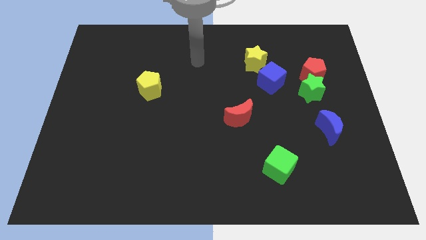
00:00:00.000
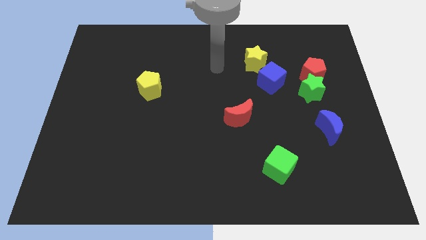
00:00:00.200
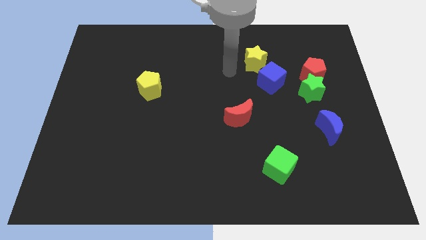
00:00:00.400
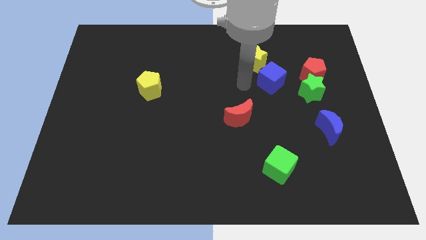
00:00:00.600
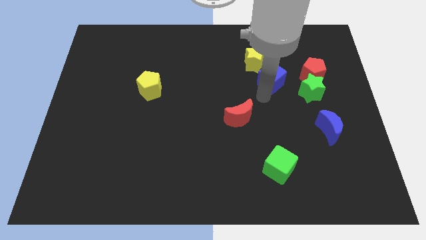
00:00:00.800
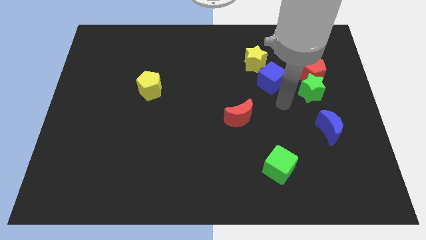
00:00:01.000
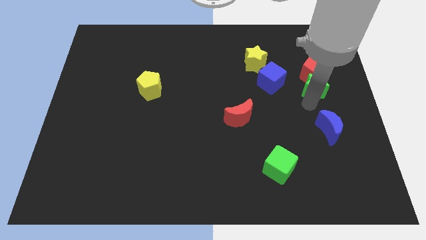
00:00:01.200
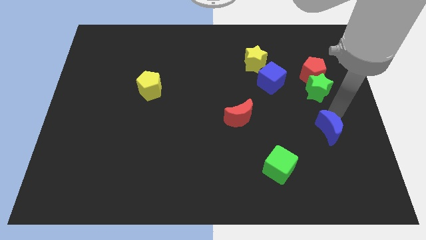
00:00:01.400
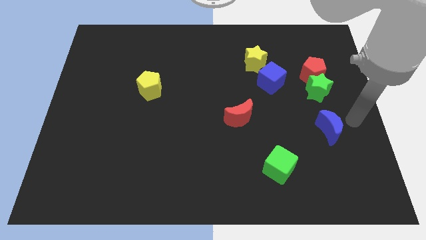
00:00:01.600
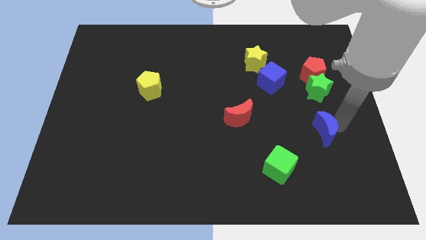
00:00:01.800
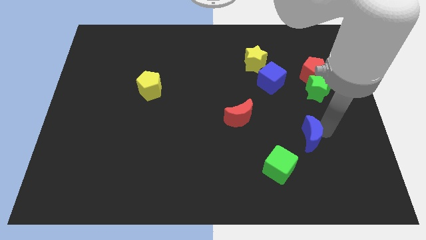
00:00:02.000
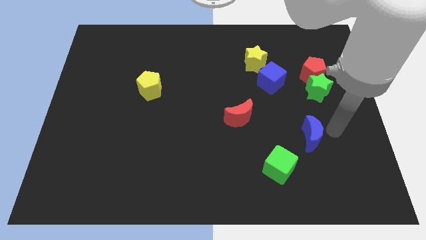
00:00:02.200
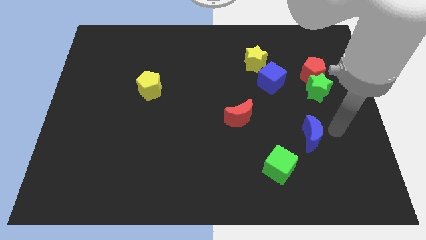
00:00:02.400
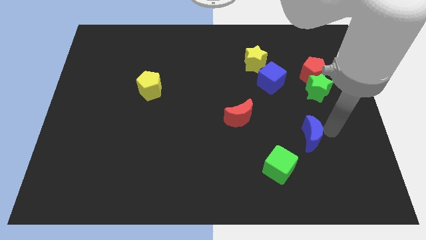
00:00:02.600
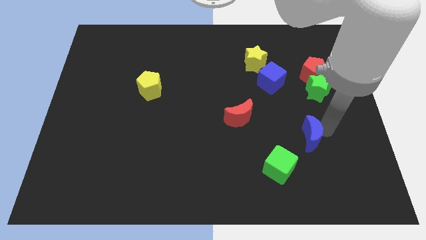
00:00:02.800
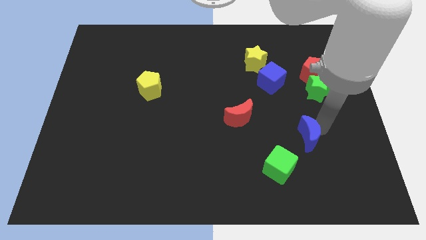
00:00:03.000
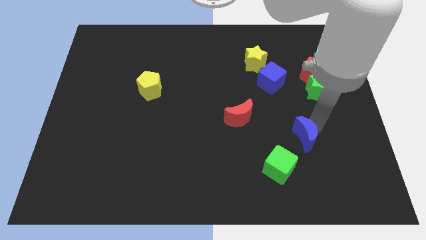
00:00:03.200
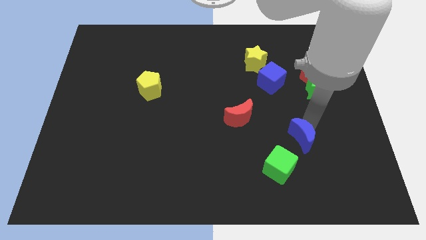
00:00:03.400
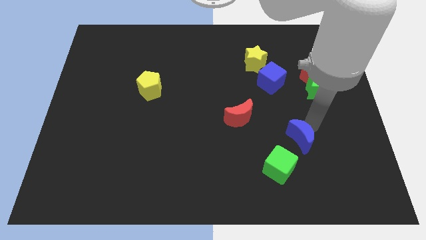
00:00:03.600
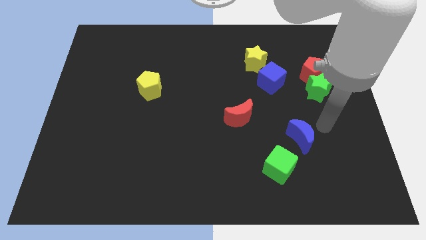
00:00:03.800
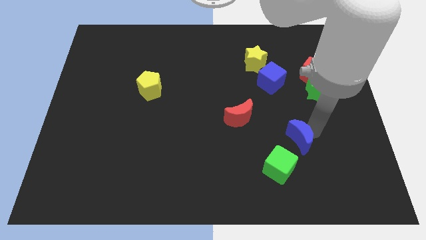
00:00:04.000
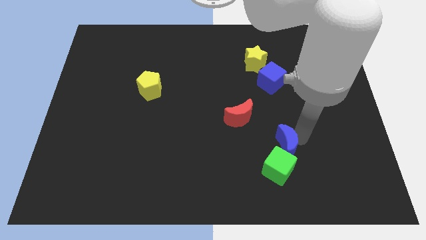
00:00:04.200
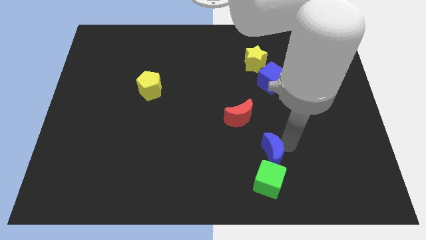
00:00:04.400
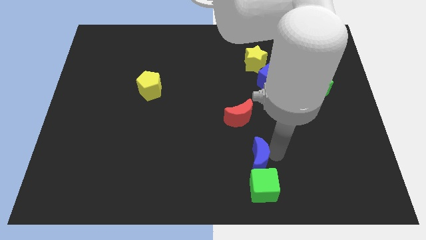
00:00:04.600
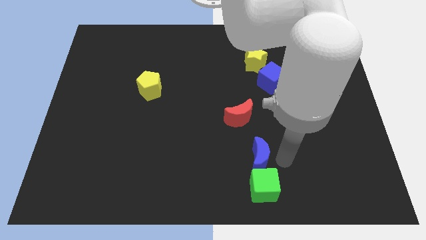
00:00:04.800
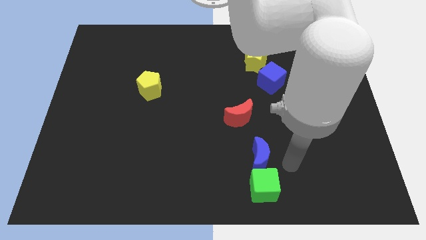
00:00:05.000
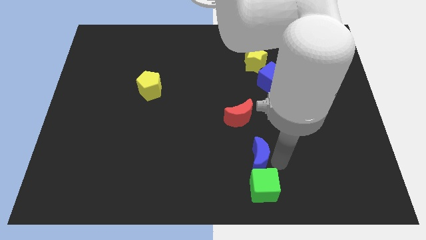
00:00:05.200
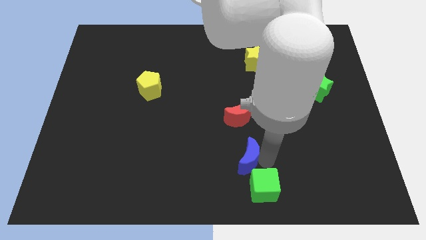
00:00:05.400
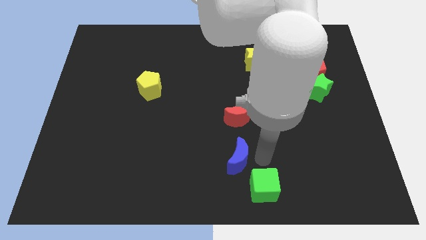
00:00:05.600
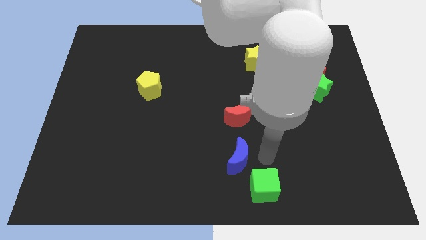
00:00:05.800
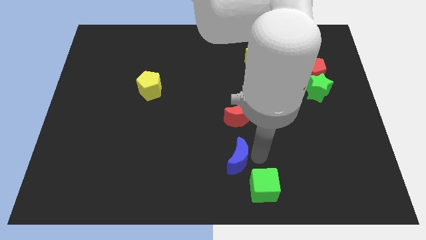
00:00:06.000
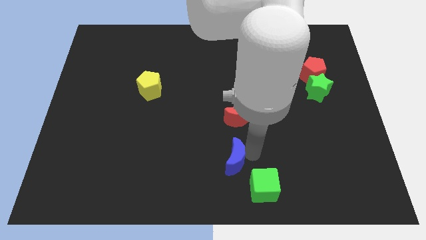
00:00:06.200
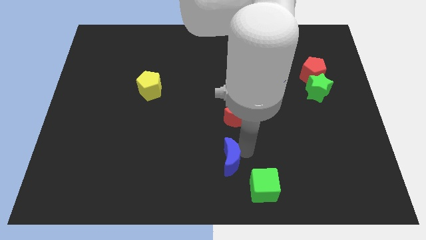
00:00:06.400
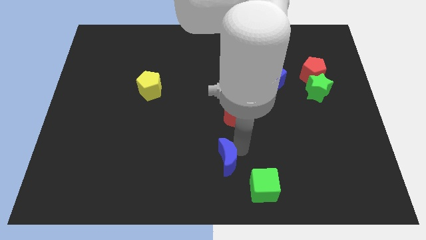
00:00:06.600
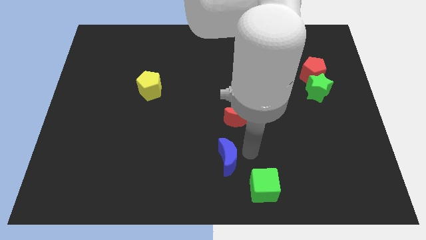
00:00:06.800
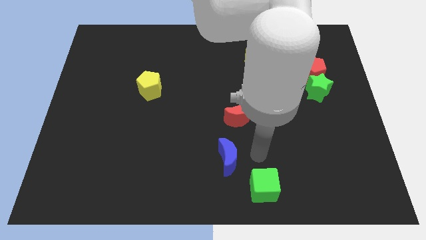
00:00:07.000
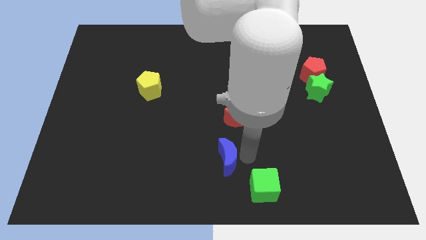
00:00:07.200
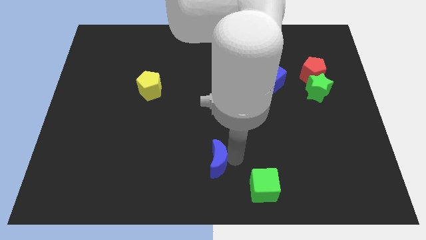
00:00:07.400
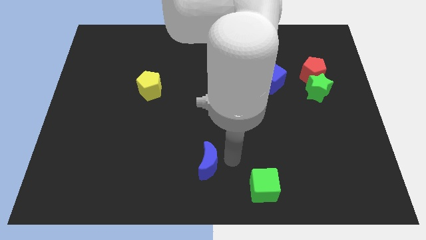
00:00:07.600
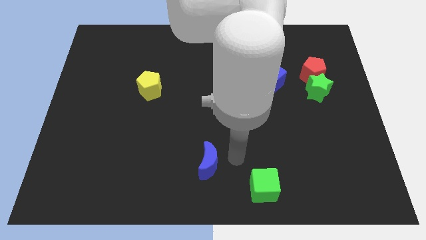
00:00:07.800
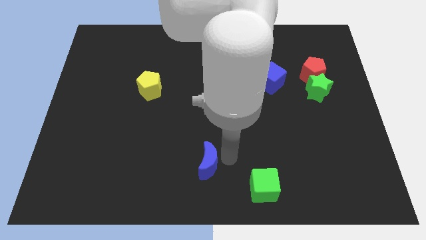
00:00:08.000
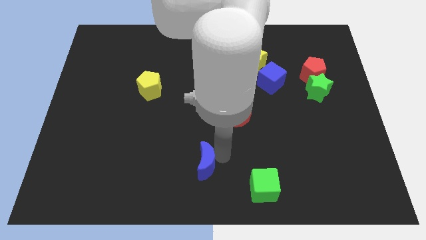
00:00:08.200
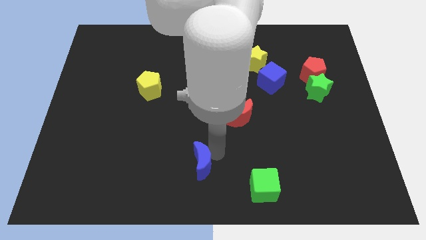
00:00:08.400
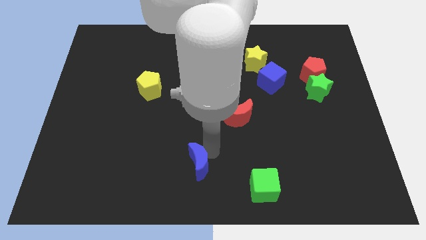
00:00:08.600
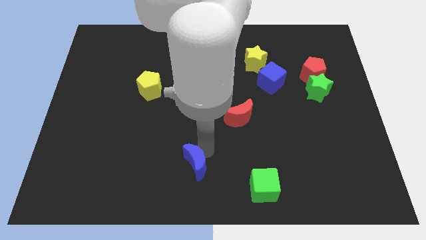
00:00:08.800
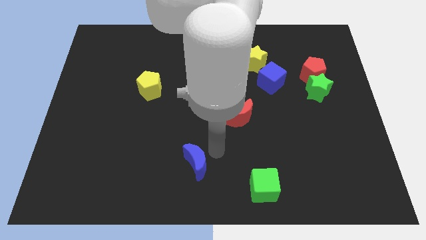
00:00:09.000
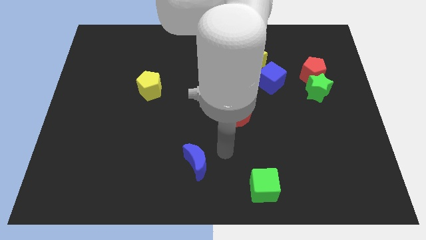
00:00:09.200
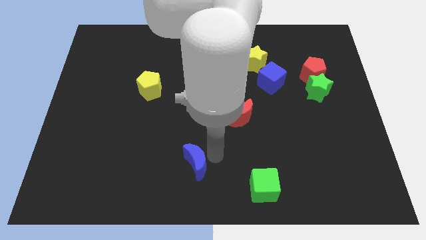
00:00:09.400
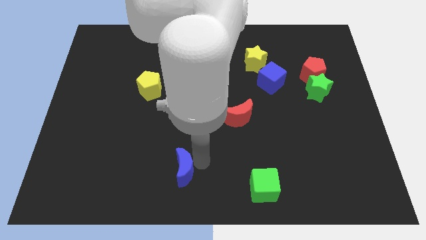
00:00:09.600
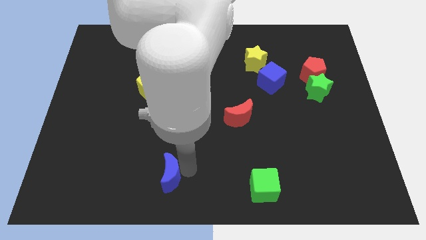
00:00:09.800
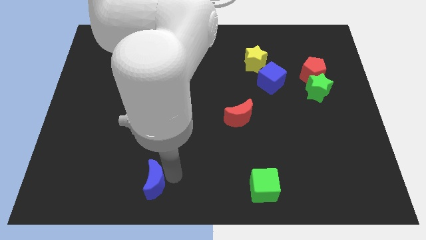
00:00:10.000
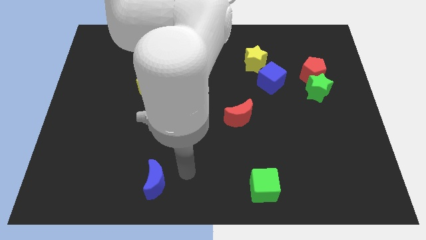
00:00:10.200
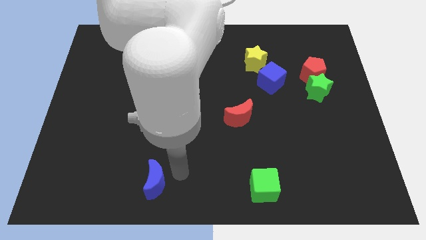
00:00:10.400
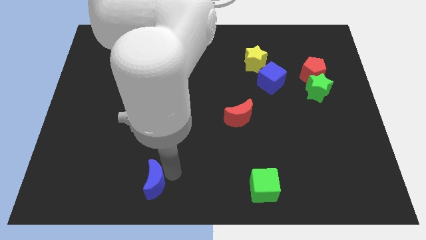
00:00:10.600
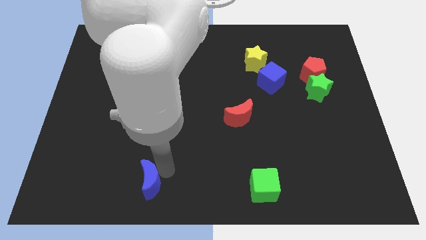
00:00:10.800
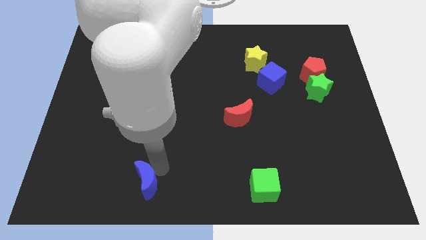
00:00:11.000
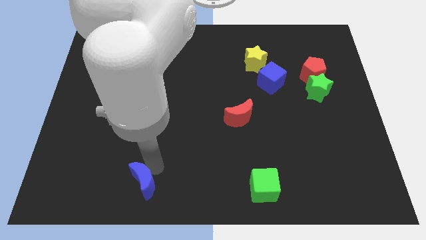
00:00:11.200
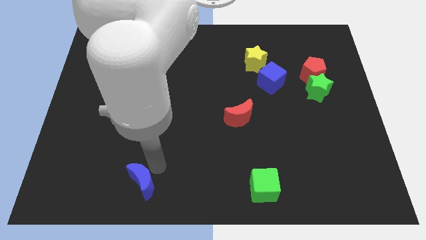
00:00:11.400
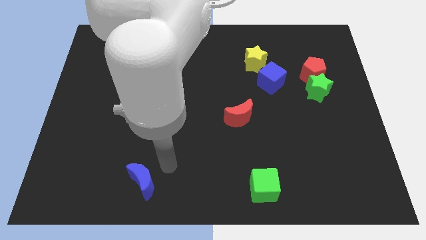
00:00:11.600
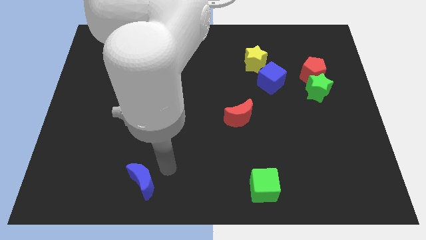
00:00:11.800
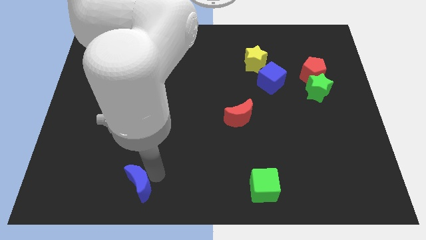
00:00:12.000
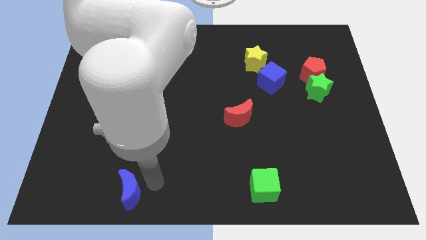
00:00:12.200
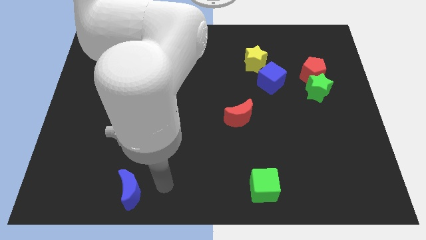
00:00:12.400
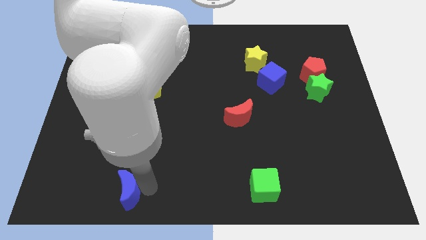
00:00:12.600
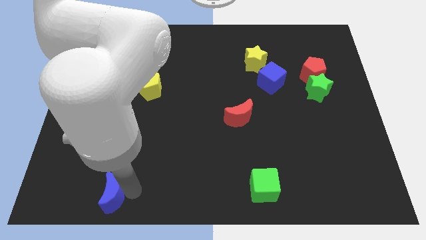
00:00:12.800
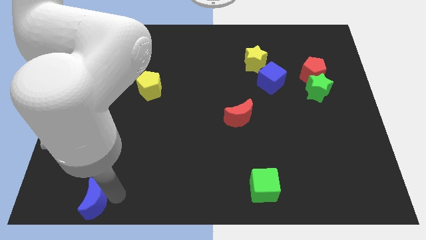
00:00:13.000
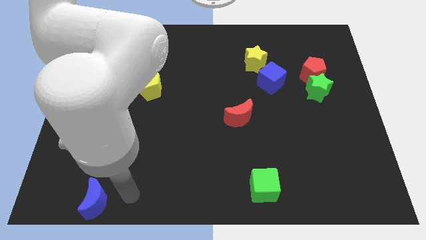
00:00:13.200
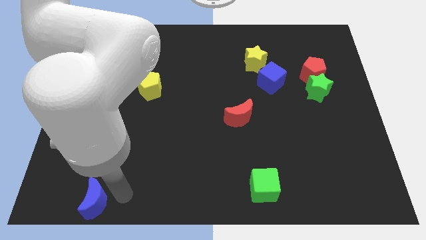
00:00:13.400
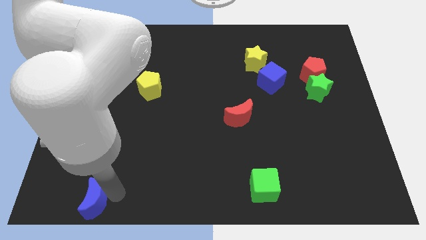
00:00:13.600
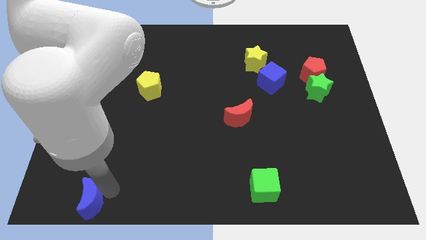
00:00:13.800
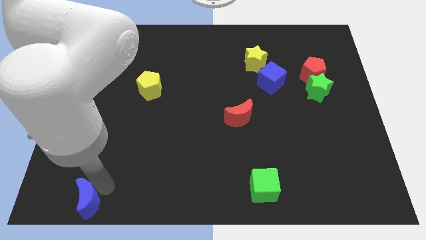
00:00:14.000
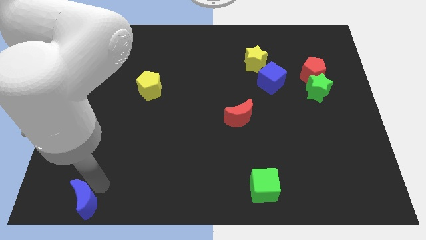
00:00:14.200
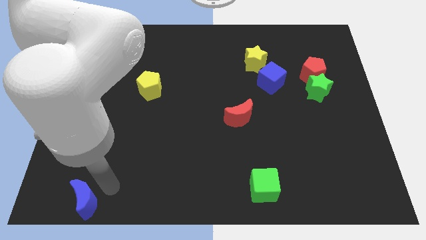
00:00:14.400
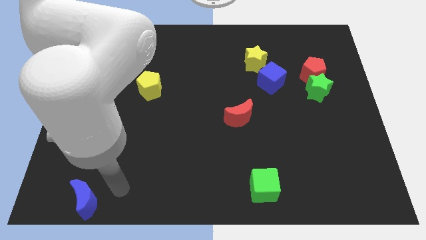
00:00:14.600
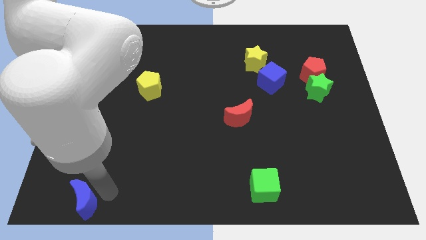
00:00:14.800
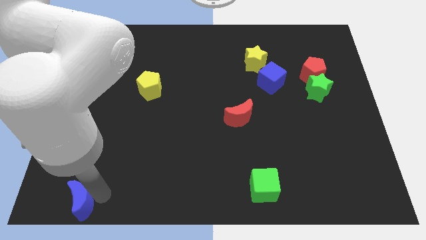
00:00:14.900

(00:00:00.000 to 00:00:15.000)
put the blue moon to the bottom left

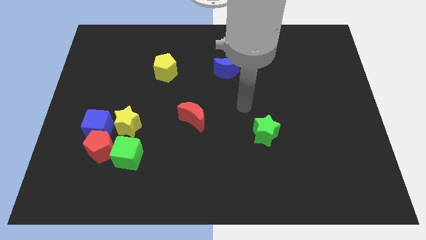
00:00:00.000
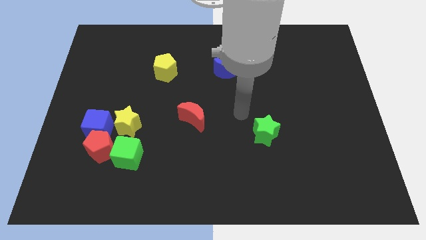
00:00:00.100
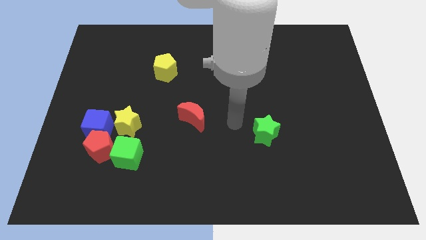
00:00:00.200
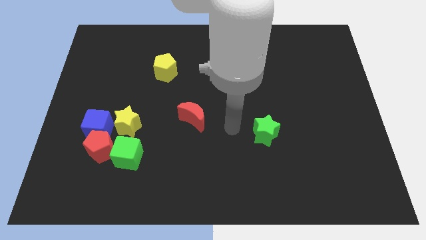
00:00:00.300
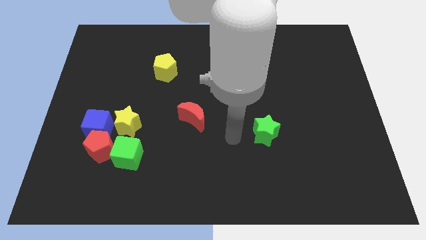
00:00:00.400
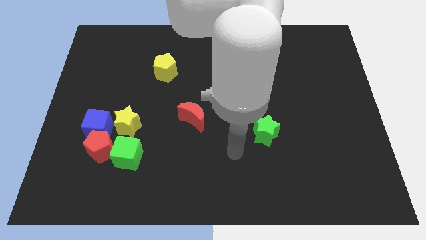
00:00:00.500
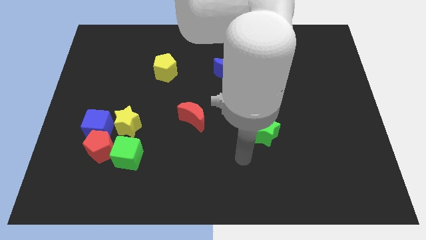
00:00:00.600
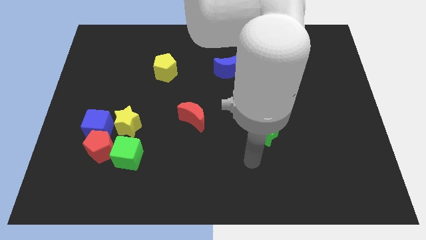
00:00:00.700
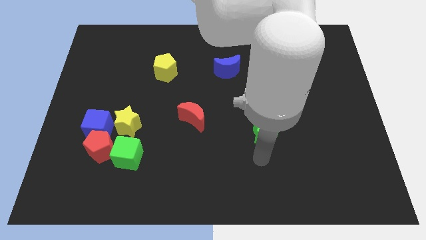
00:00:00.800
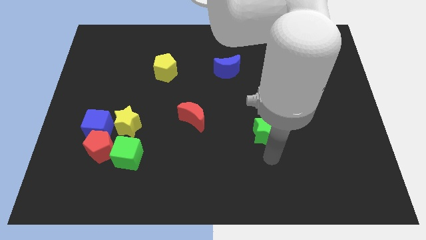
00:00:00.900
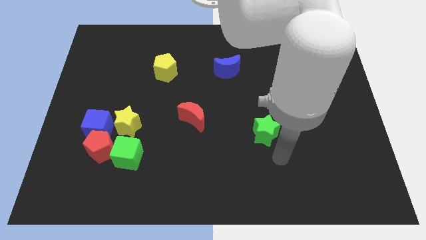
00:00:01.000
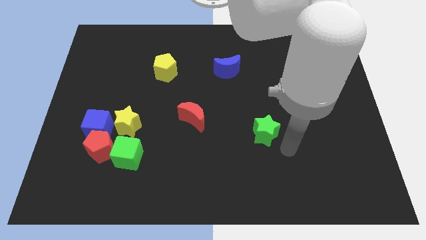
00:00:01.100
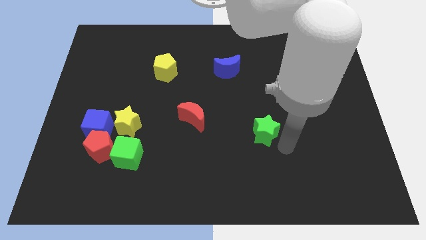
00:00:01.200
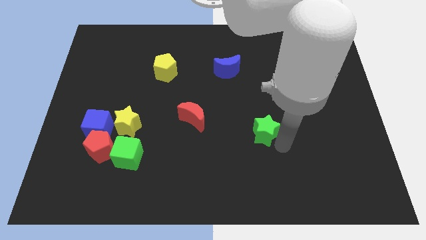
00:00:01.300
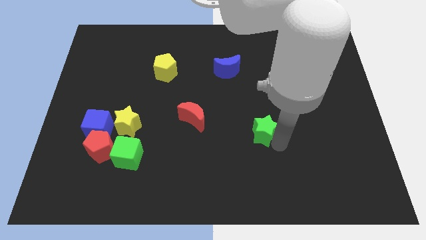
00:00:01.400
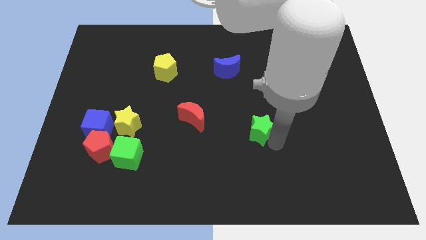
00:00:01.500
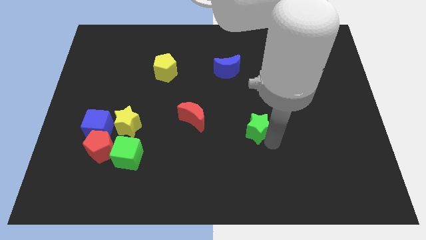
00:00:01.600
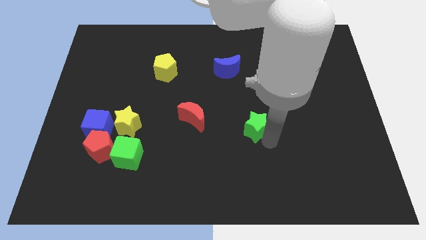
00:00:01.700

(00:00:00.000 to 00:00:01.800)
push the green star to the center
